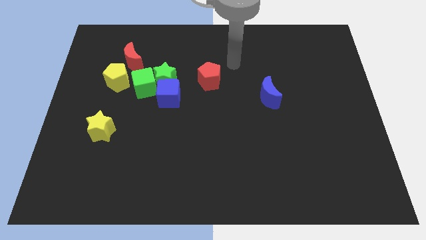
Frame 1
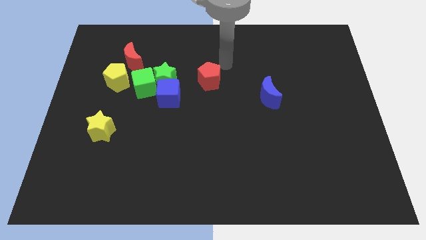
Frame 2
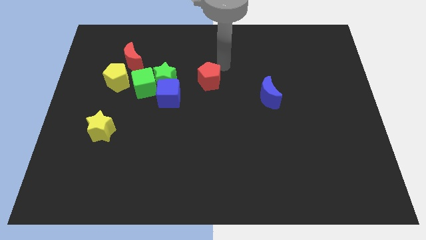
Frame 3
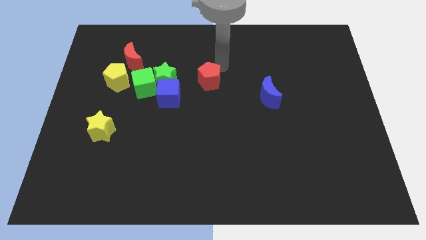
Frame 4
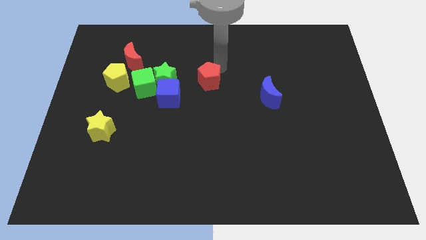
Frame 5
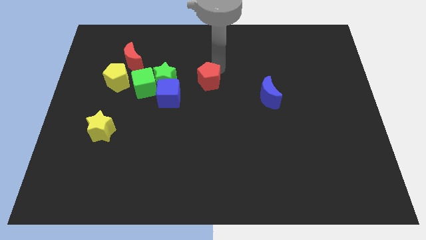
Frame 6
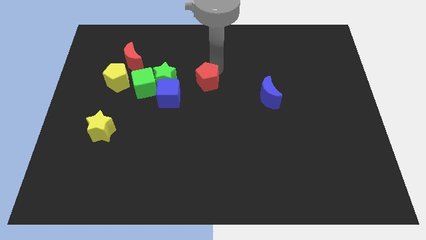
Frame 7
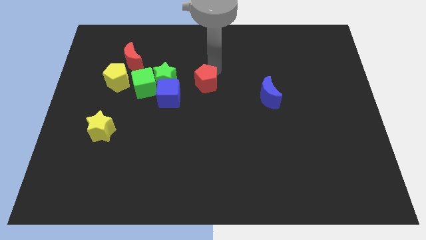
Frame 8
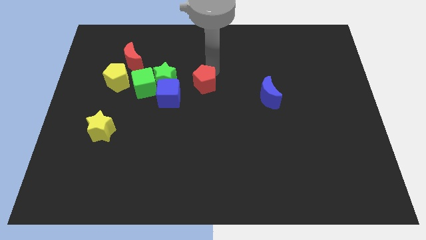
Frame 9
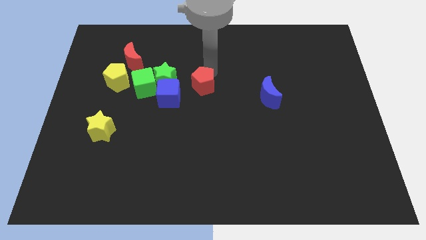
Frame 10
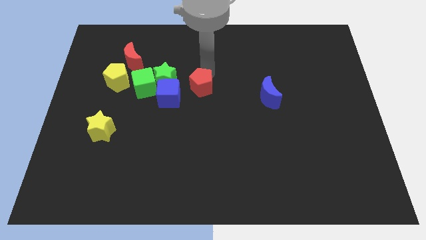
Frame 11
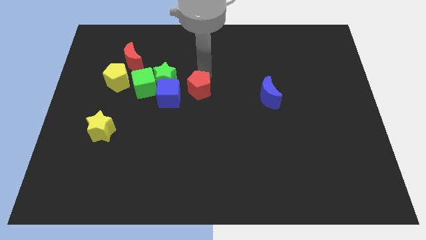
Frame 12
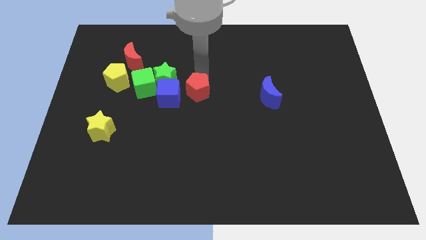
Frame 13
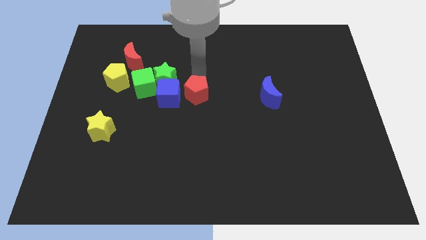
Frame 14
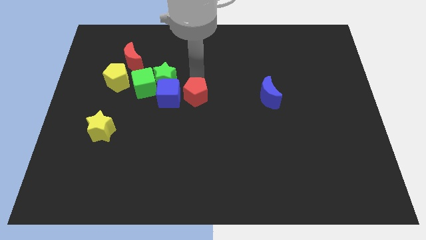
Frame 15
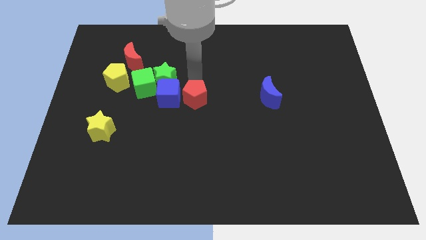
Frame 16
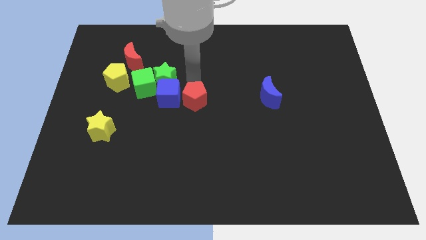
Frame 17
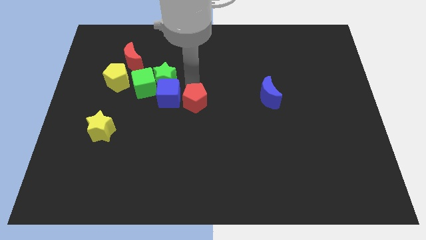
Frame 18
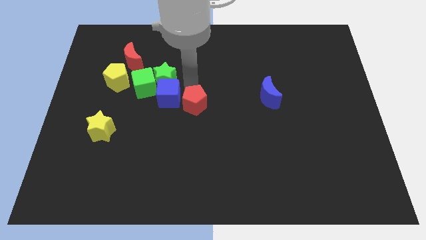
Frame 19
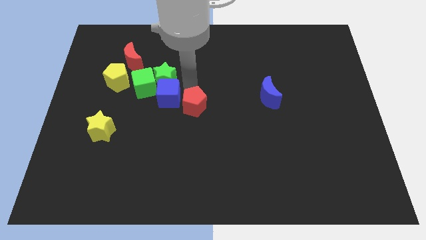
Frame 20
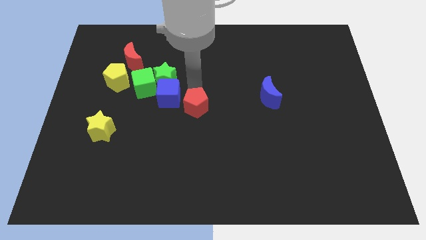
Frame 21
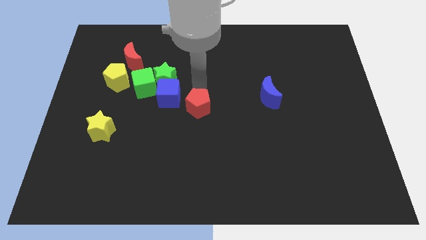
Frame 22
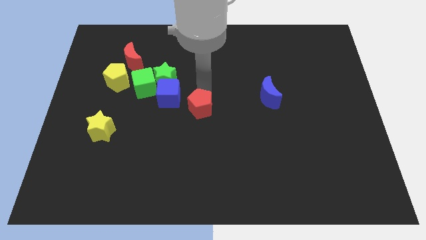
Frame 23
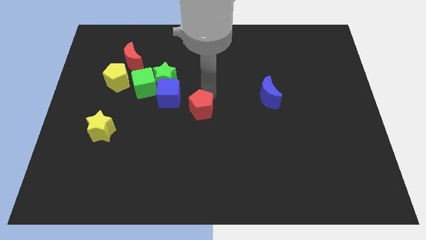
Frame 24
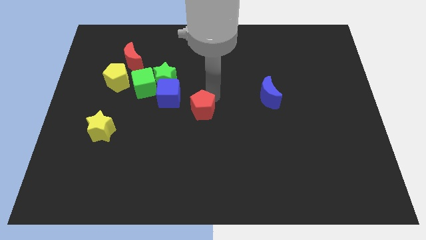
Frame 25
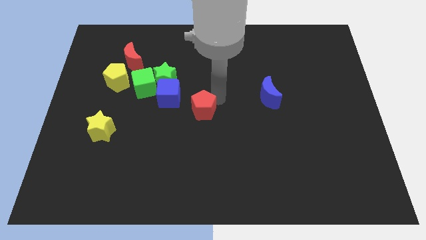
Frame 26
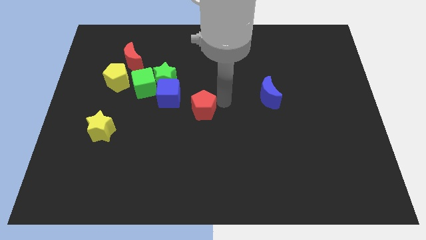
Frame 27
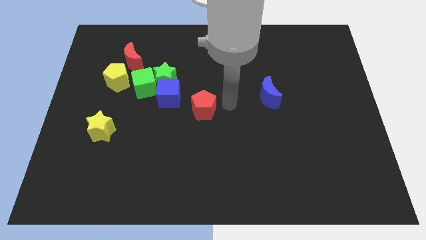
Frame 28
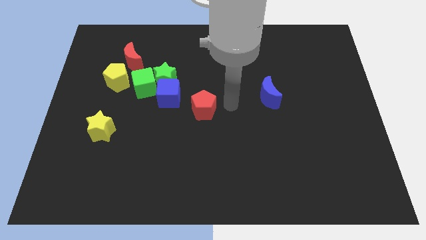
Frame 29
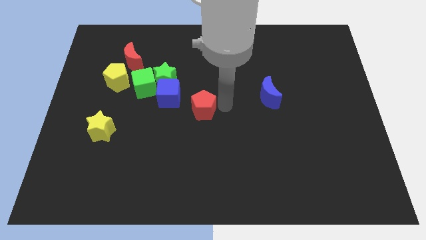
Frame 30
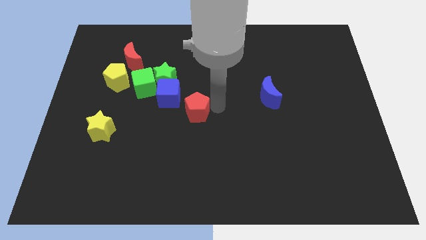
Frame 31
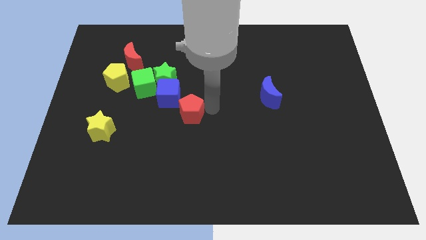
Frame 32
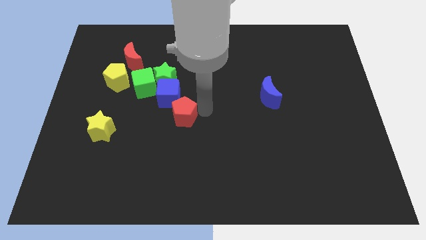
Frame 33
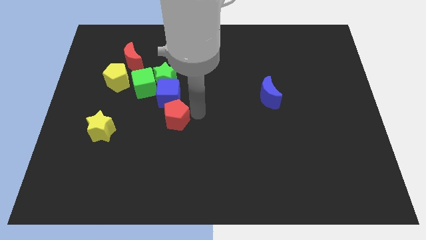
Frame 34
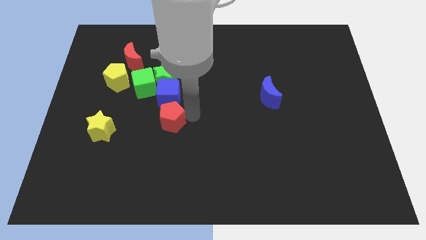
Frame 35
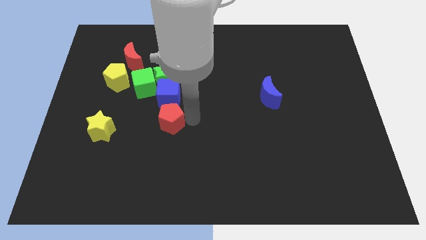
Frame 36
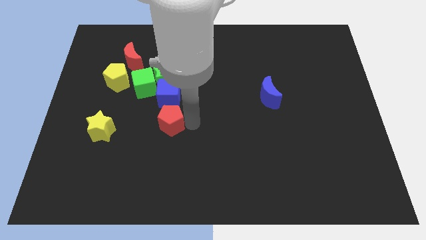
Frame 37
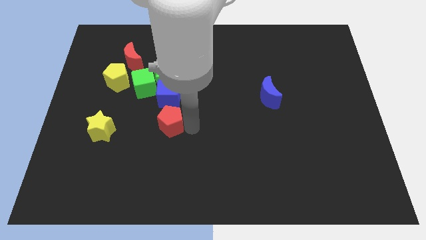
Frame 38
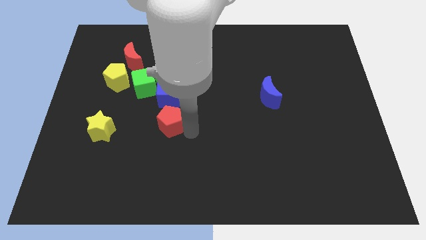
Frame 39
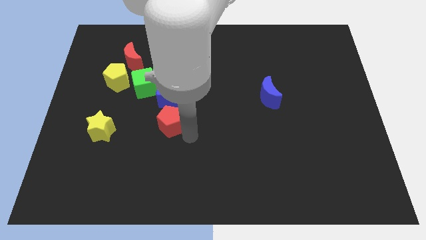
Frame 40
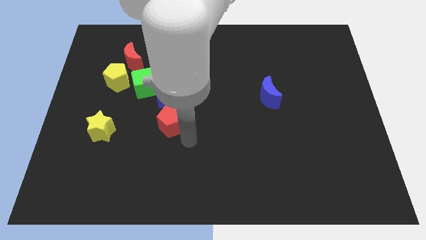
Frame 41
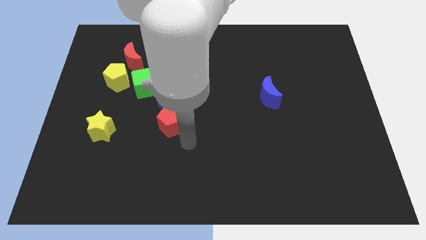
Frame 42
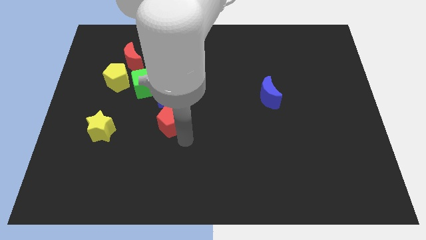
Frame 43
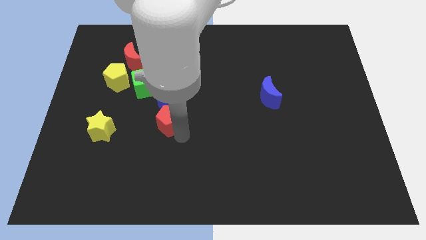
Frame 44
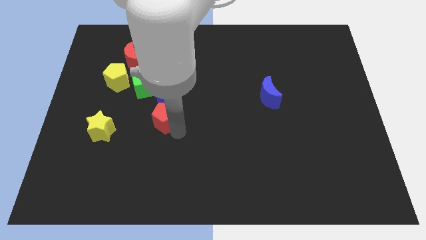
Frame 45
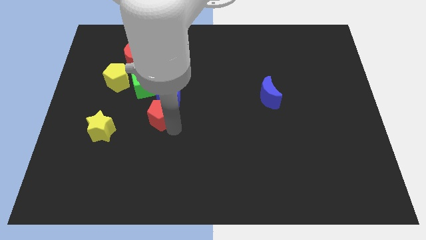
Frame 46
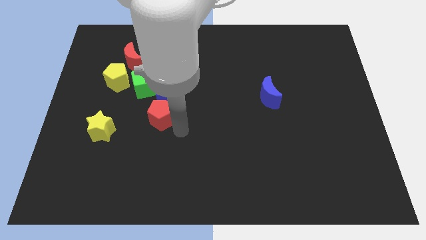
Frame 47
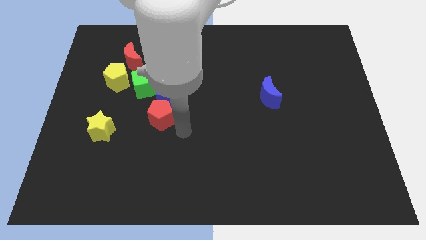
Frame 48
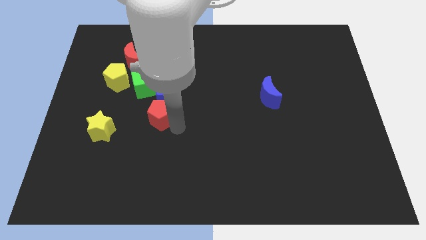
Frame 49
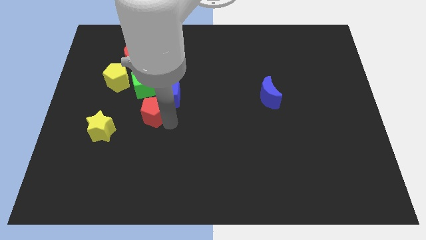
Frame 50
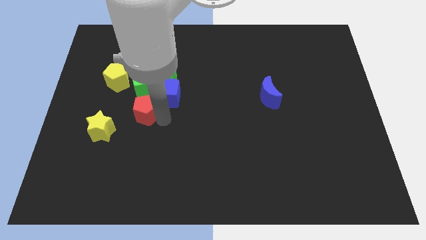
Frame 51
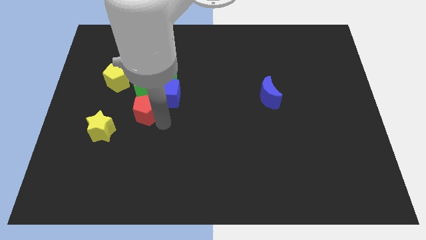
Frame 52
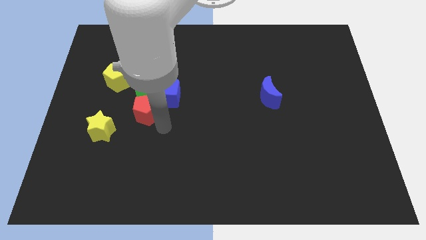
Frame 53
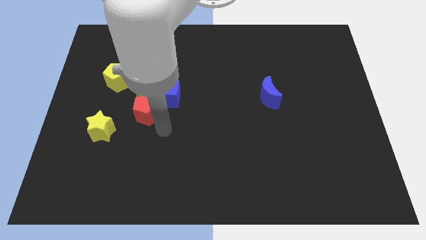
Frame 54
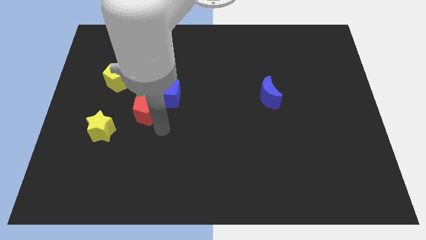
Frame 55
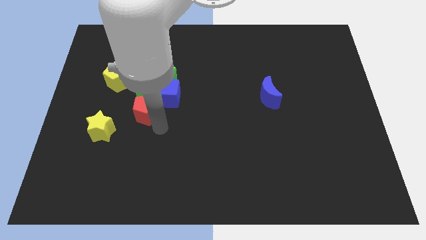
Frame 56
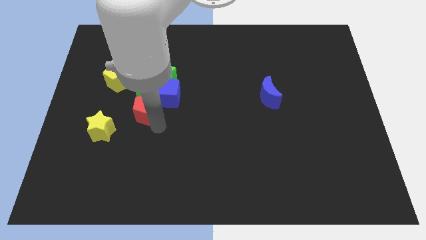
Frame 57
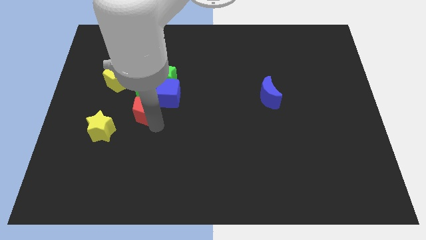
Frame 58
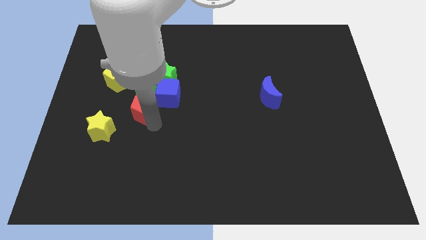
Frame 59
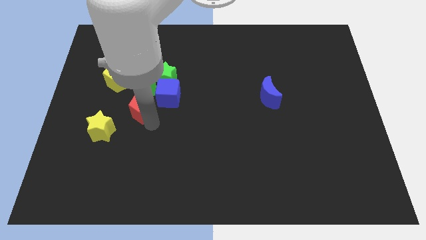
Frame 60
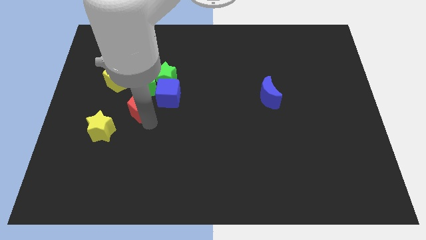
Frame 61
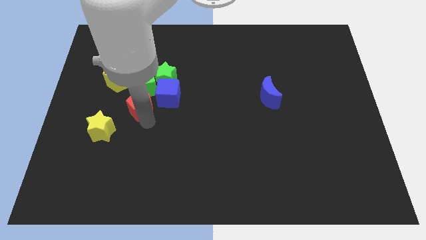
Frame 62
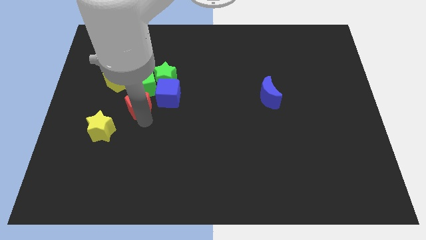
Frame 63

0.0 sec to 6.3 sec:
slide the red pentagon below the red moon
